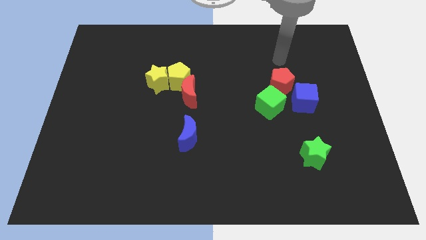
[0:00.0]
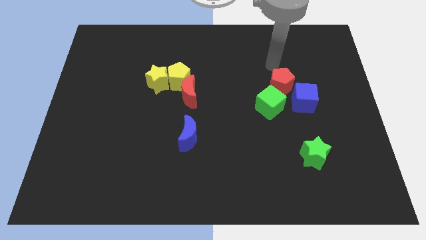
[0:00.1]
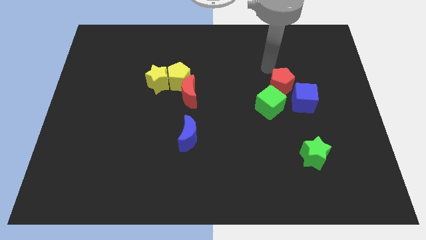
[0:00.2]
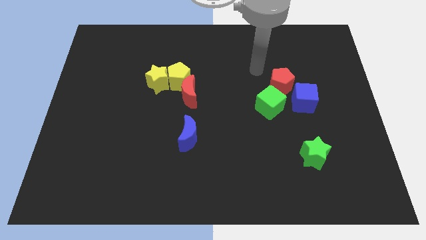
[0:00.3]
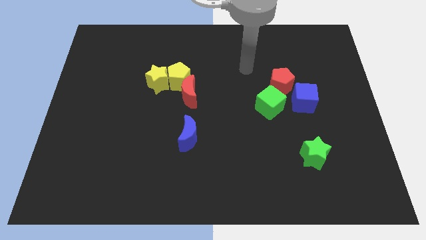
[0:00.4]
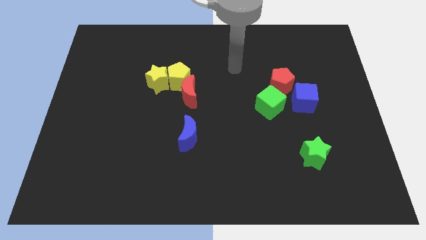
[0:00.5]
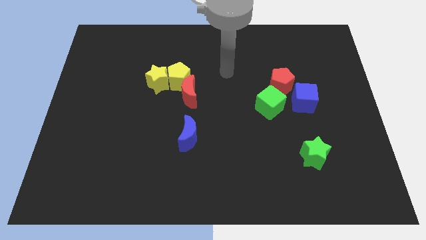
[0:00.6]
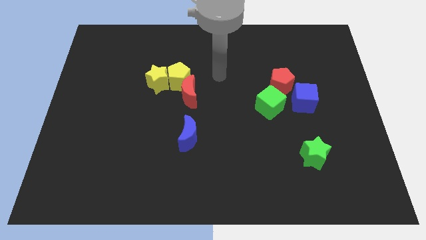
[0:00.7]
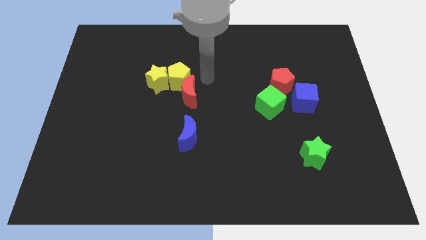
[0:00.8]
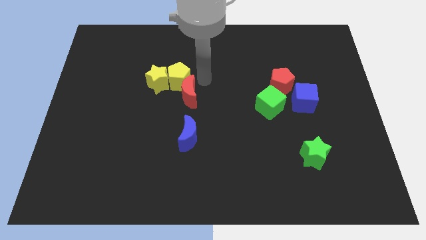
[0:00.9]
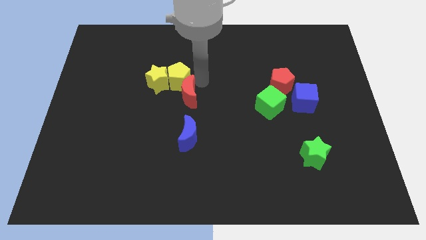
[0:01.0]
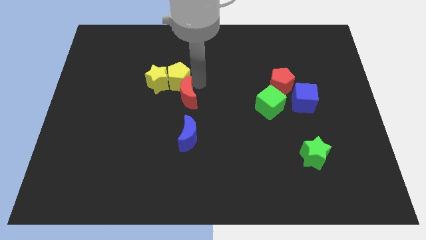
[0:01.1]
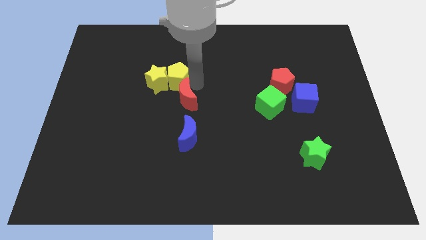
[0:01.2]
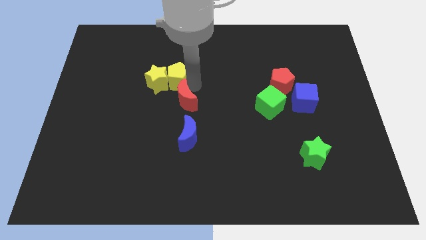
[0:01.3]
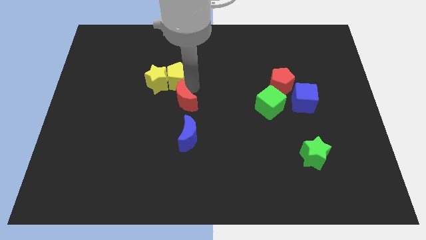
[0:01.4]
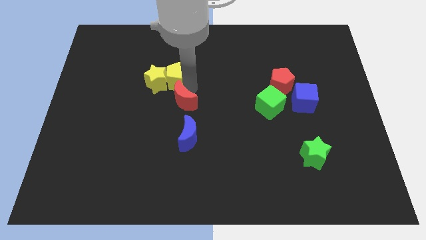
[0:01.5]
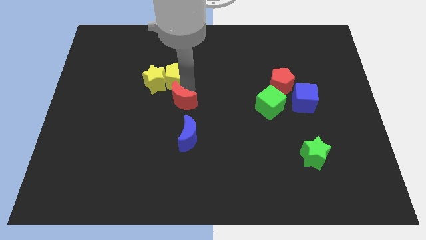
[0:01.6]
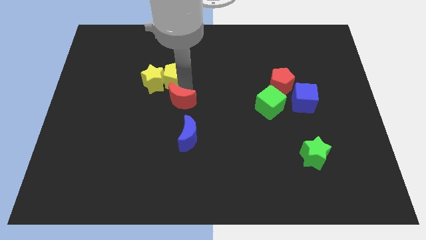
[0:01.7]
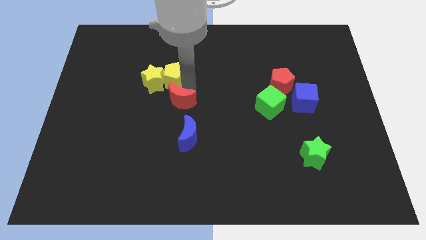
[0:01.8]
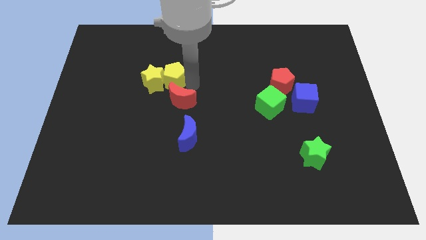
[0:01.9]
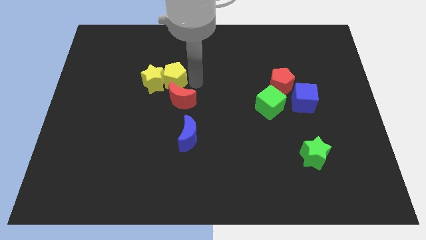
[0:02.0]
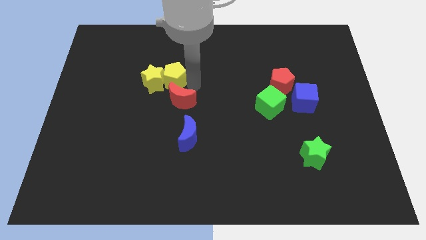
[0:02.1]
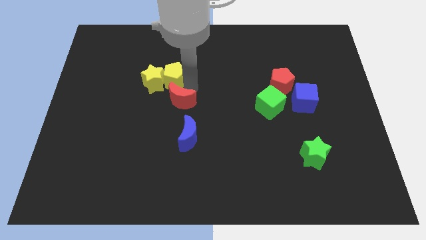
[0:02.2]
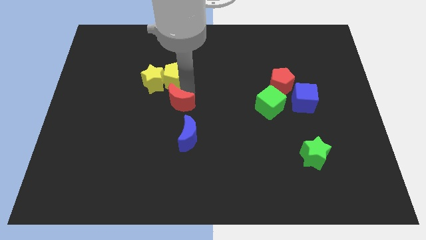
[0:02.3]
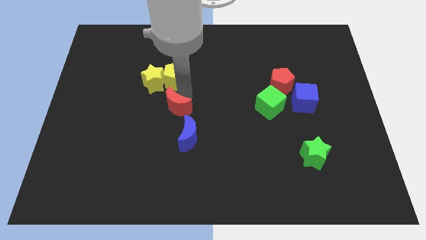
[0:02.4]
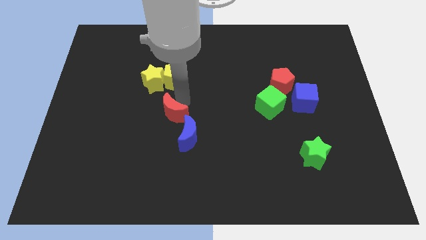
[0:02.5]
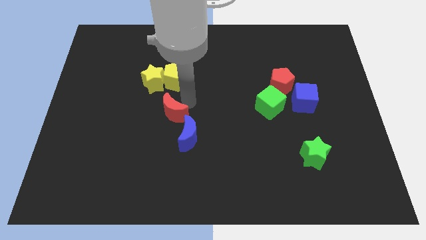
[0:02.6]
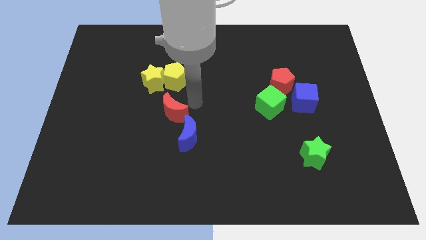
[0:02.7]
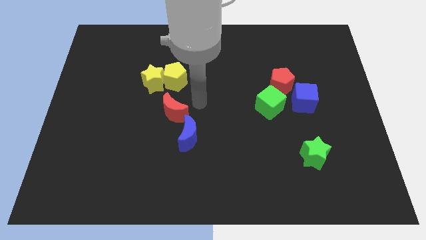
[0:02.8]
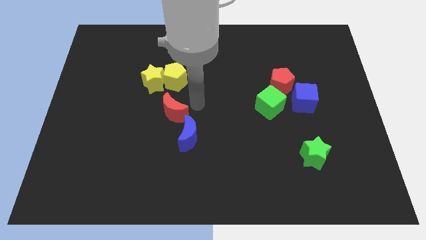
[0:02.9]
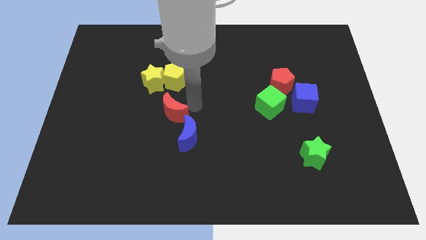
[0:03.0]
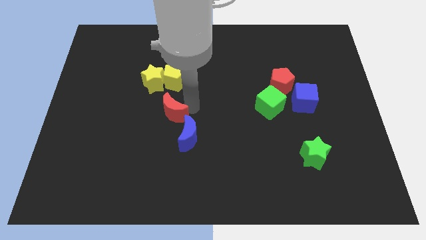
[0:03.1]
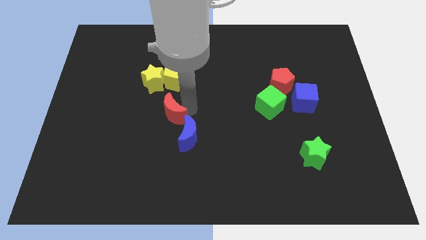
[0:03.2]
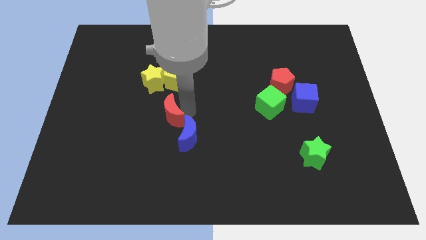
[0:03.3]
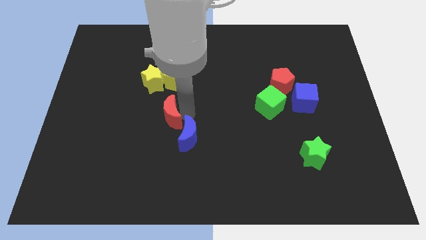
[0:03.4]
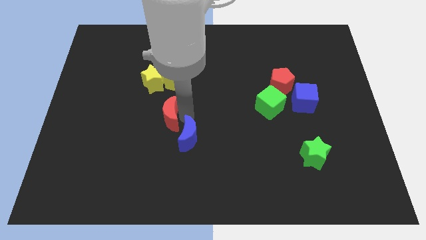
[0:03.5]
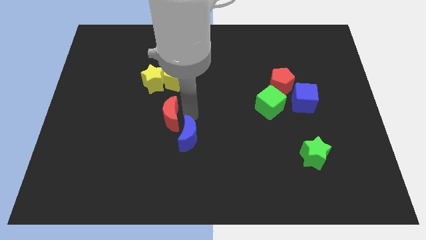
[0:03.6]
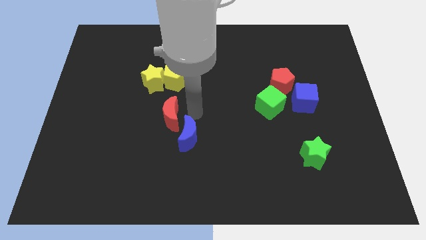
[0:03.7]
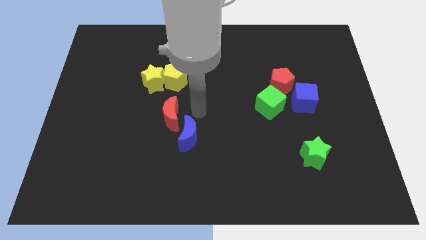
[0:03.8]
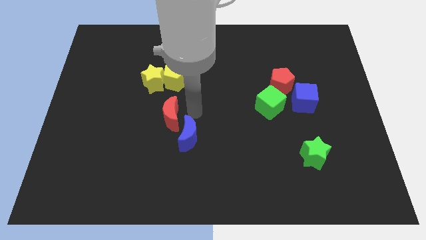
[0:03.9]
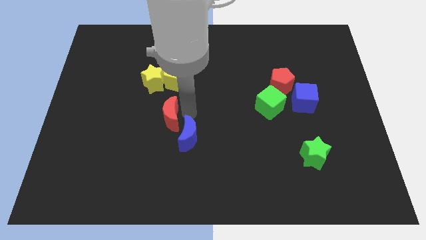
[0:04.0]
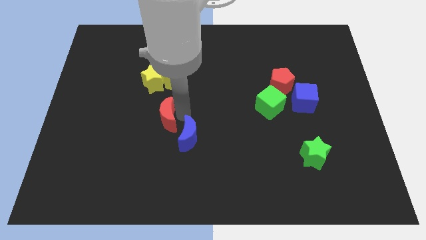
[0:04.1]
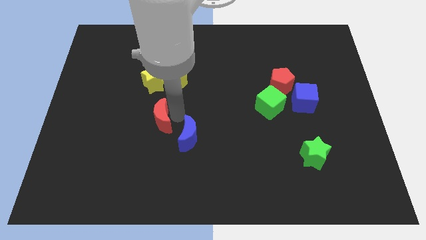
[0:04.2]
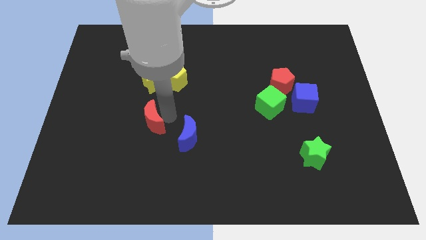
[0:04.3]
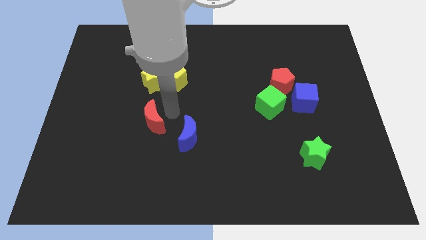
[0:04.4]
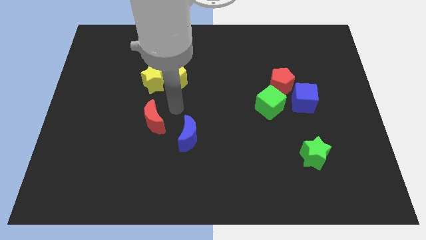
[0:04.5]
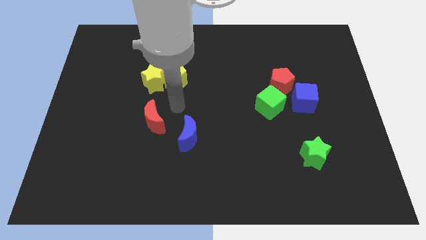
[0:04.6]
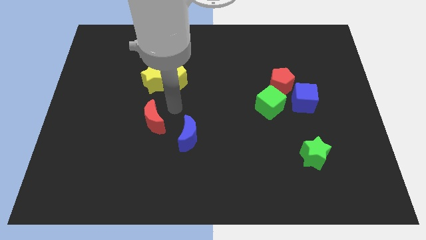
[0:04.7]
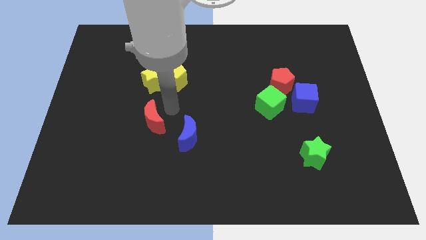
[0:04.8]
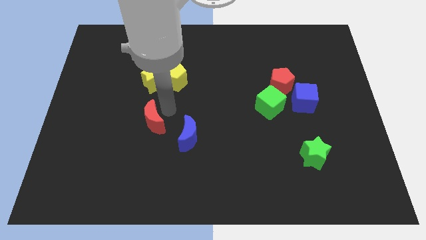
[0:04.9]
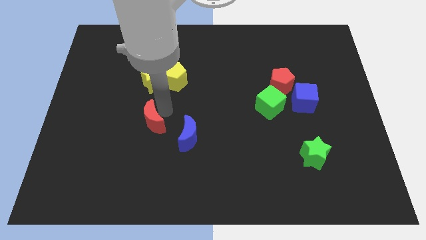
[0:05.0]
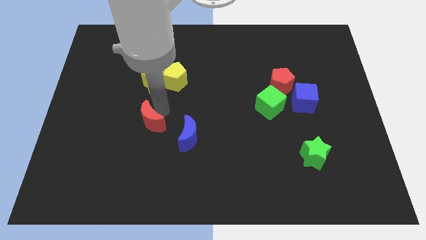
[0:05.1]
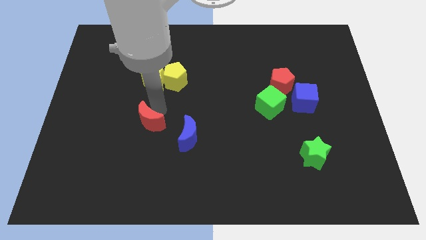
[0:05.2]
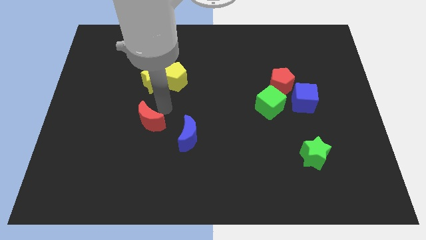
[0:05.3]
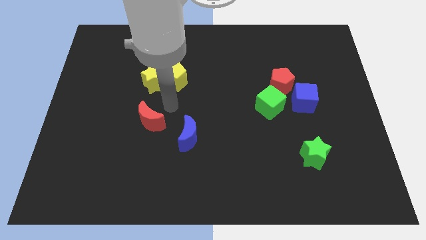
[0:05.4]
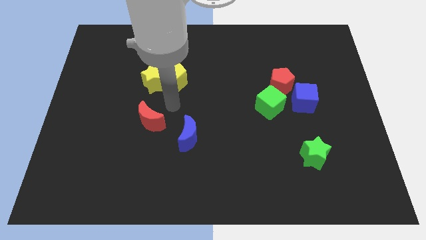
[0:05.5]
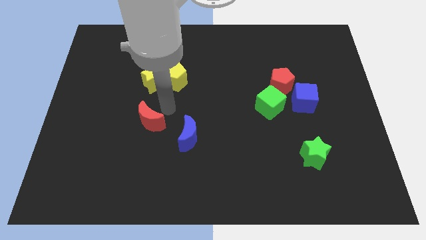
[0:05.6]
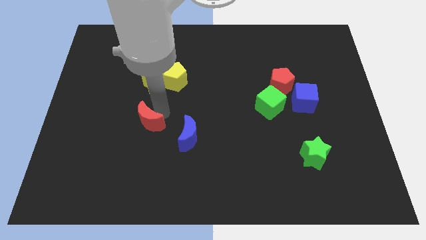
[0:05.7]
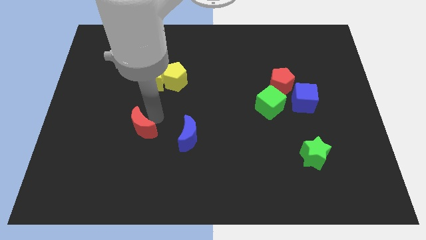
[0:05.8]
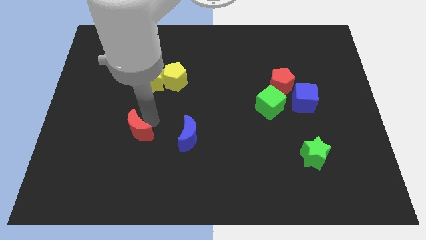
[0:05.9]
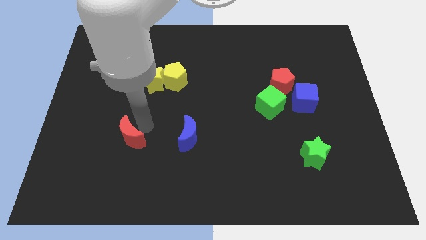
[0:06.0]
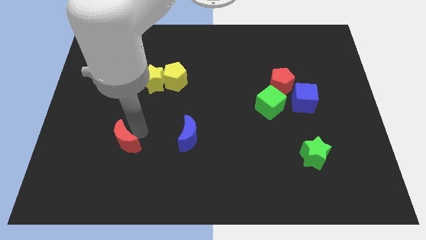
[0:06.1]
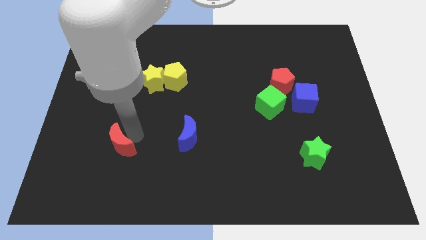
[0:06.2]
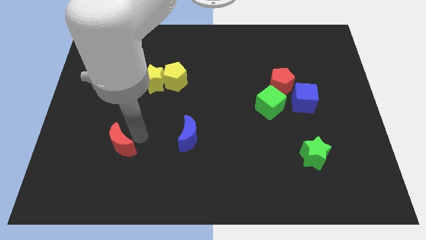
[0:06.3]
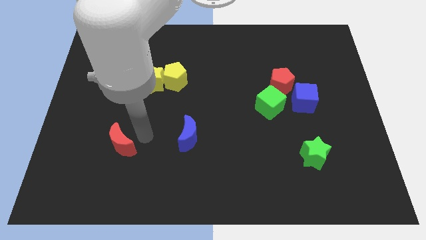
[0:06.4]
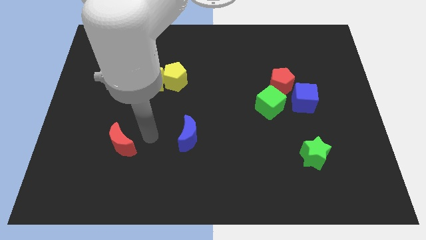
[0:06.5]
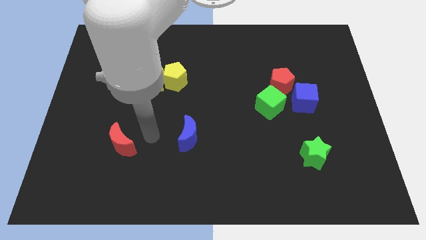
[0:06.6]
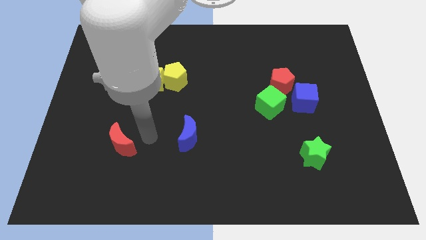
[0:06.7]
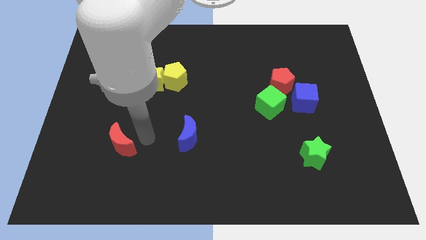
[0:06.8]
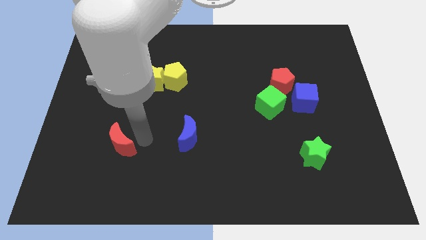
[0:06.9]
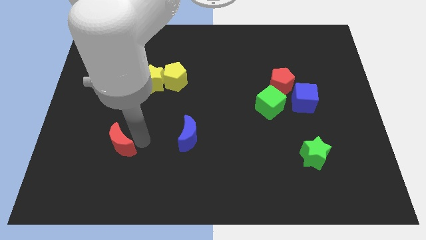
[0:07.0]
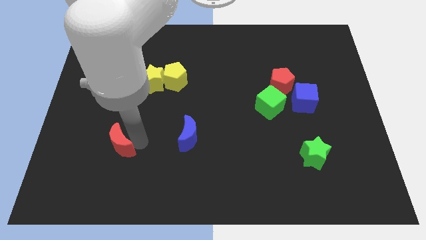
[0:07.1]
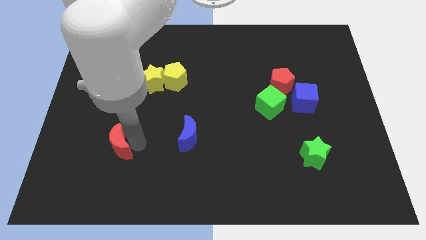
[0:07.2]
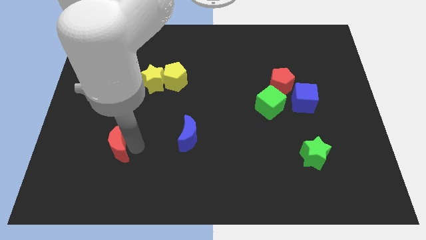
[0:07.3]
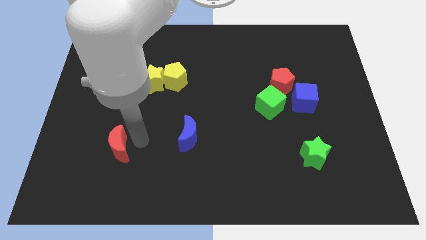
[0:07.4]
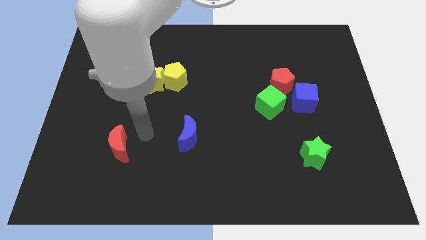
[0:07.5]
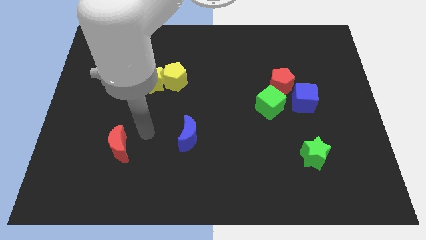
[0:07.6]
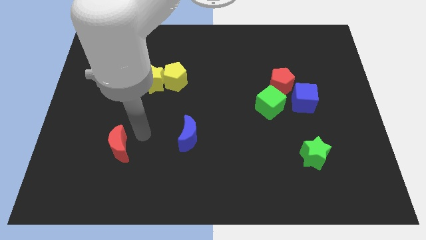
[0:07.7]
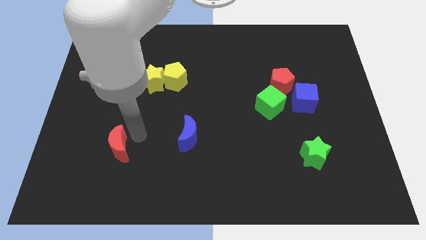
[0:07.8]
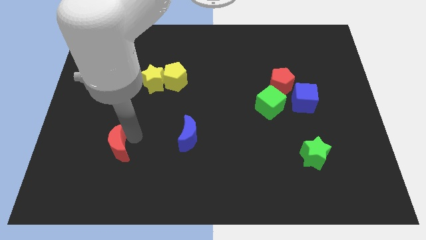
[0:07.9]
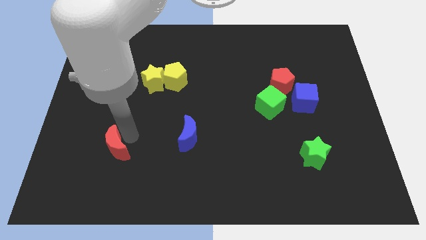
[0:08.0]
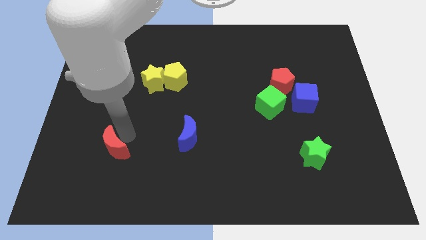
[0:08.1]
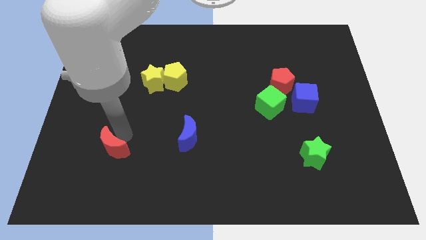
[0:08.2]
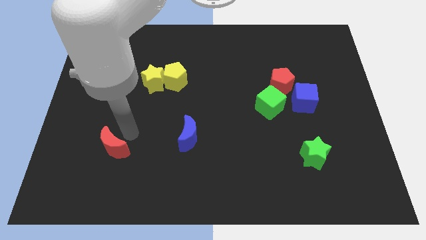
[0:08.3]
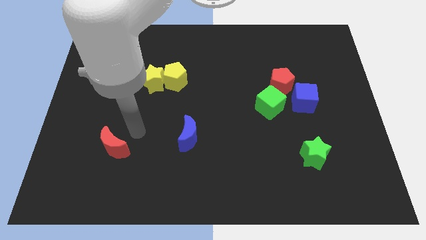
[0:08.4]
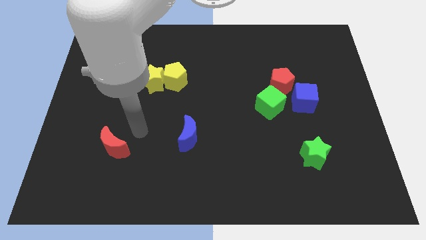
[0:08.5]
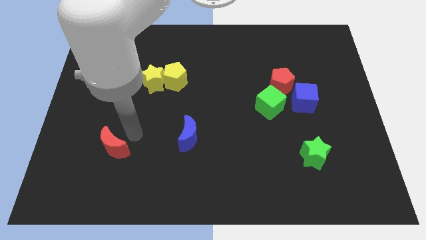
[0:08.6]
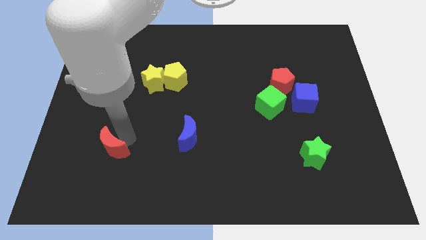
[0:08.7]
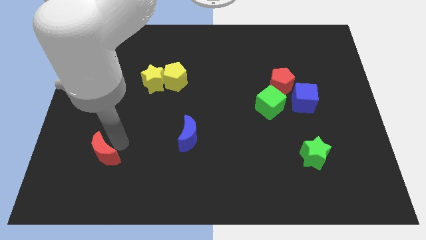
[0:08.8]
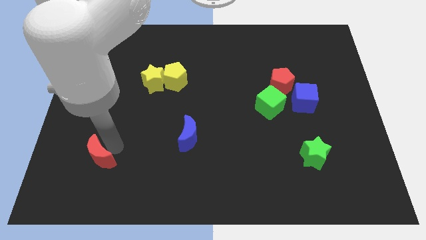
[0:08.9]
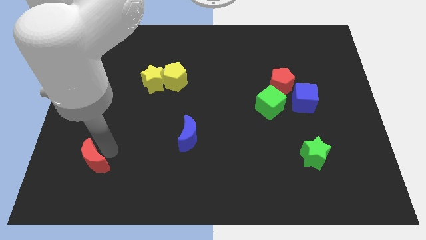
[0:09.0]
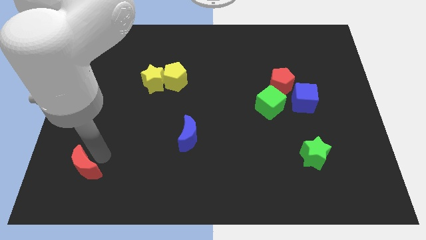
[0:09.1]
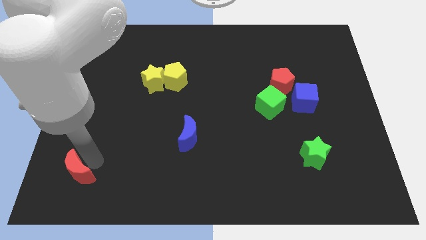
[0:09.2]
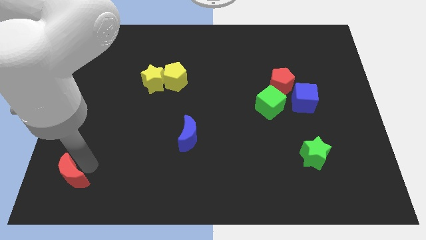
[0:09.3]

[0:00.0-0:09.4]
move the red moon to the bottom left of the board
